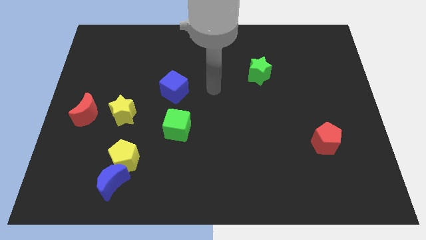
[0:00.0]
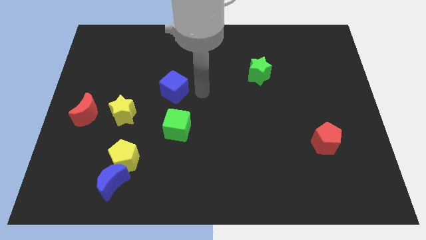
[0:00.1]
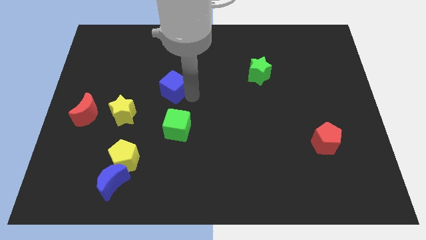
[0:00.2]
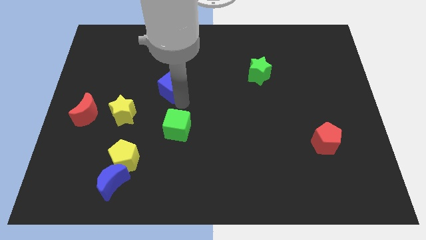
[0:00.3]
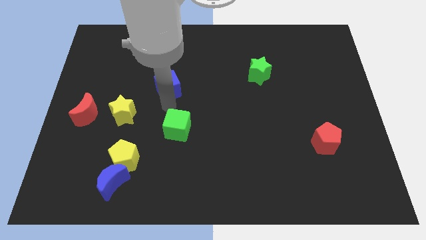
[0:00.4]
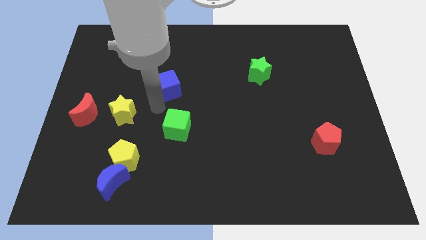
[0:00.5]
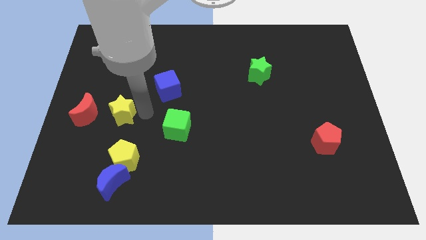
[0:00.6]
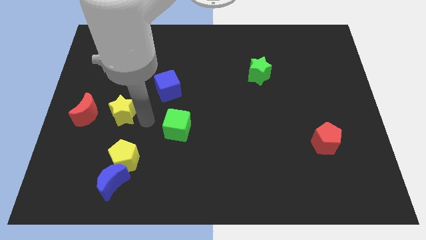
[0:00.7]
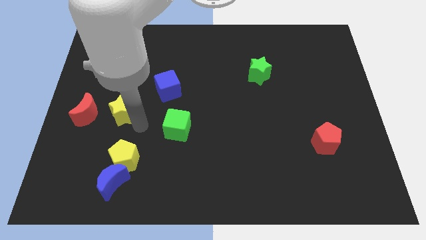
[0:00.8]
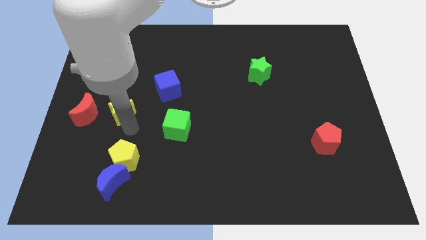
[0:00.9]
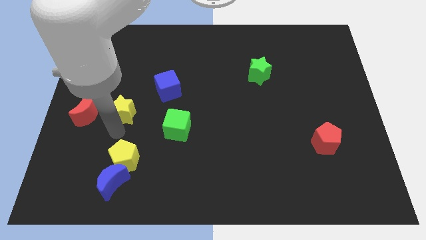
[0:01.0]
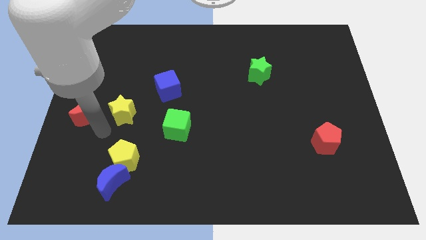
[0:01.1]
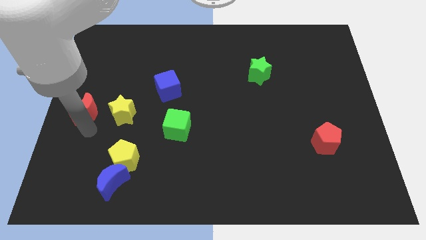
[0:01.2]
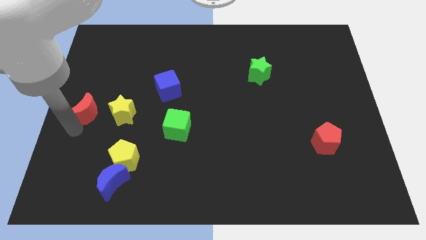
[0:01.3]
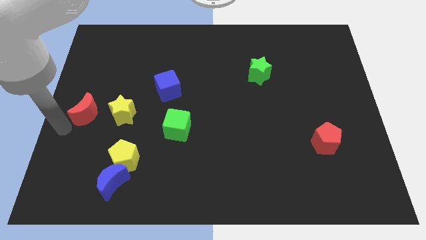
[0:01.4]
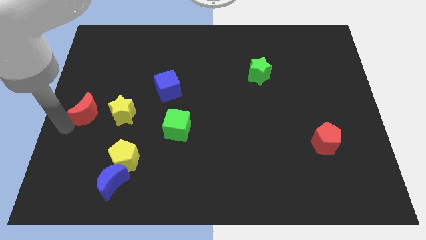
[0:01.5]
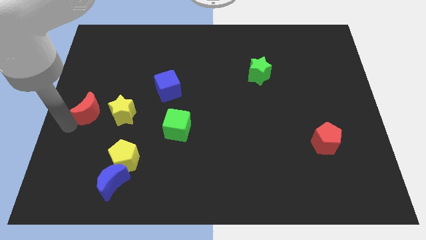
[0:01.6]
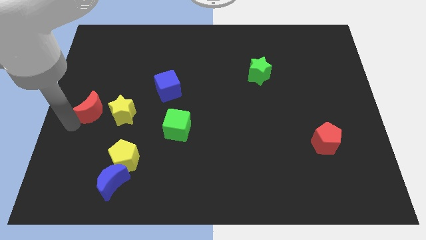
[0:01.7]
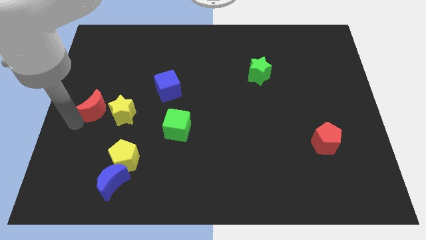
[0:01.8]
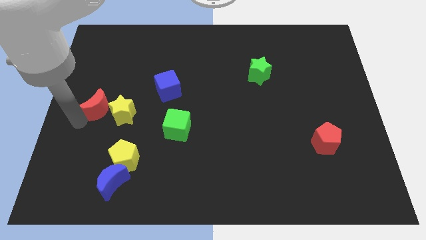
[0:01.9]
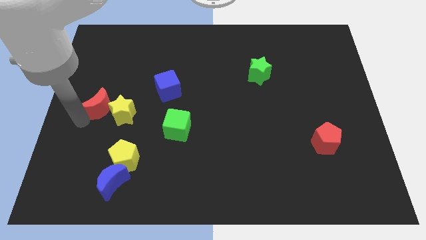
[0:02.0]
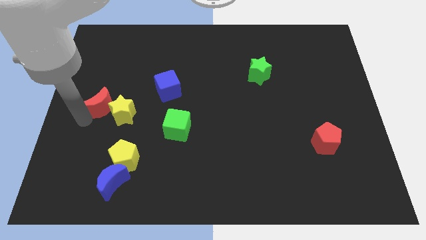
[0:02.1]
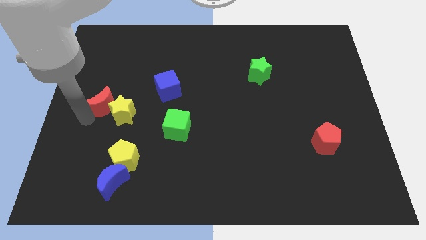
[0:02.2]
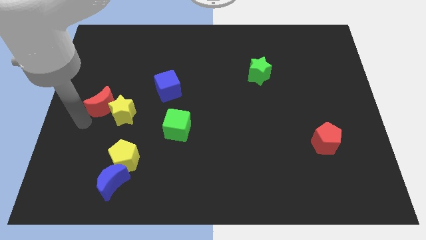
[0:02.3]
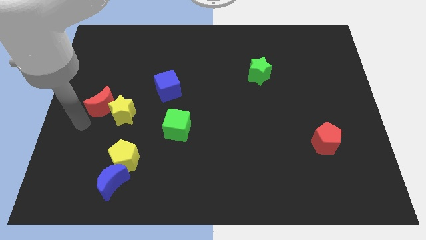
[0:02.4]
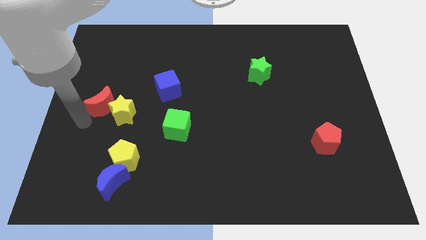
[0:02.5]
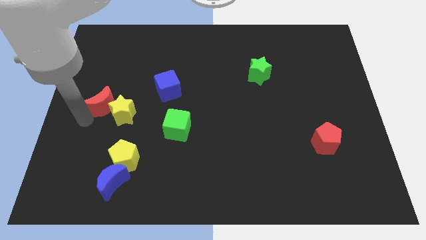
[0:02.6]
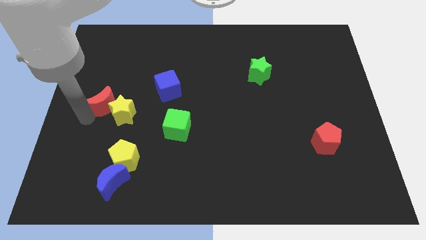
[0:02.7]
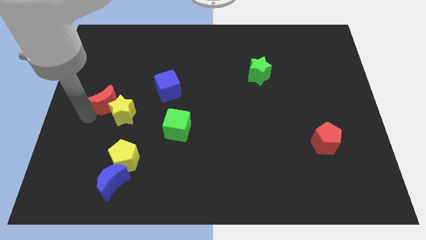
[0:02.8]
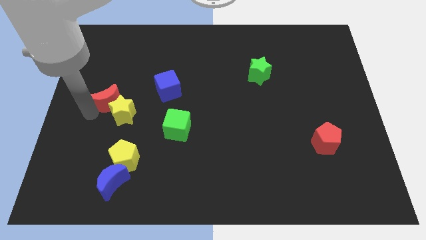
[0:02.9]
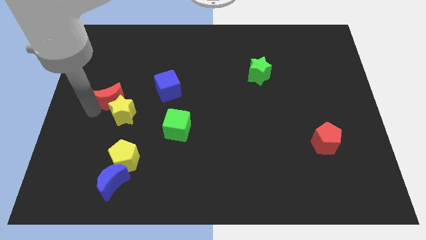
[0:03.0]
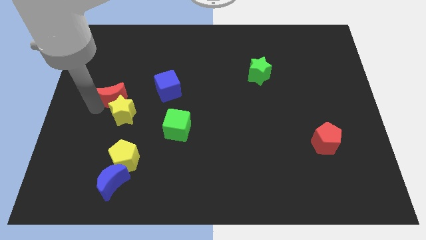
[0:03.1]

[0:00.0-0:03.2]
slightly move the red moon diagonally up and to the right

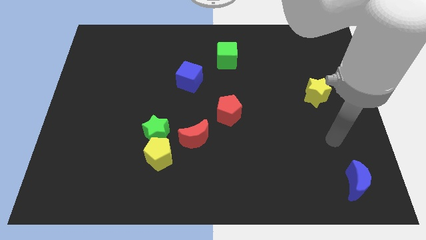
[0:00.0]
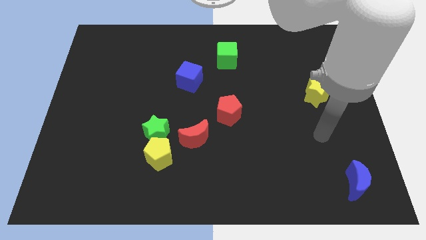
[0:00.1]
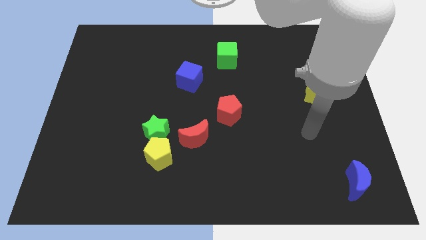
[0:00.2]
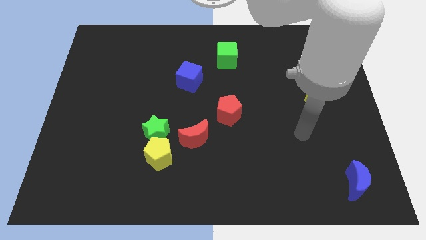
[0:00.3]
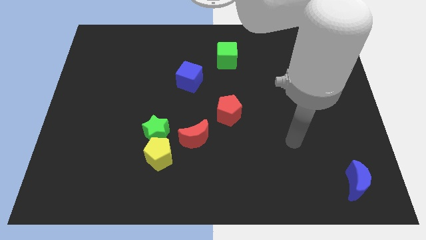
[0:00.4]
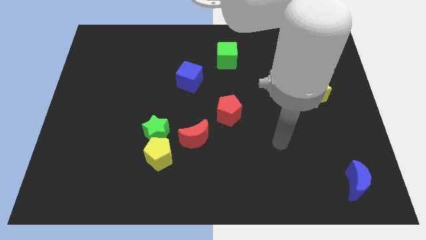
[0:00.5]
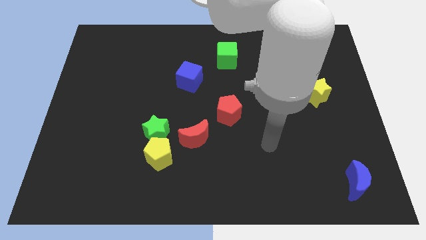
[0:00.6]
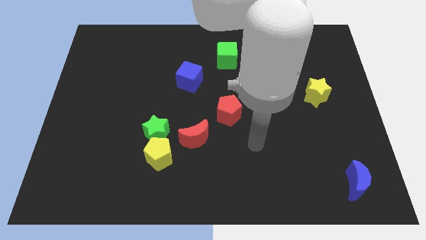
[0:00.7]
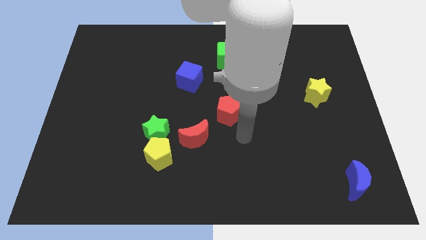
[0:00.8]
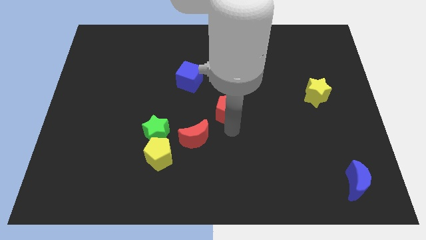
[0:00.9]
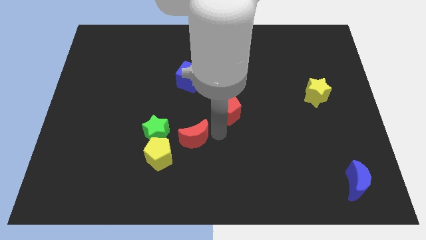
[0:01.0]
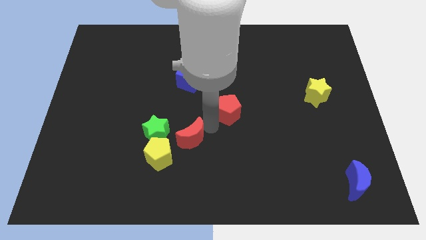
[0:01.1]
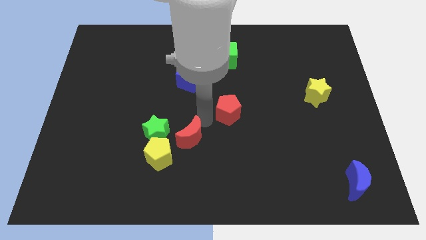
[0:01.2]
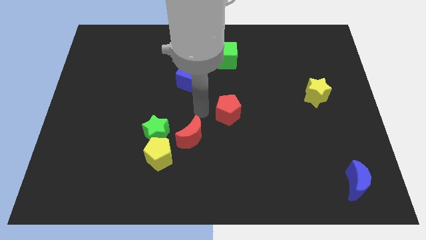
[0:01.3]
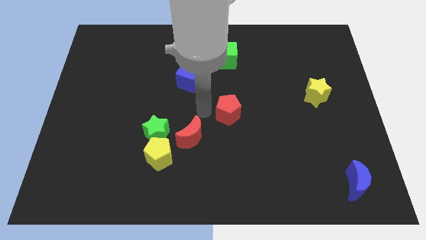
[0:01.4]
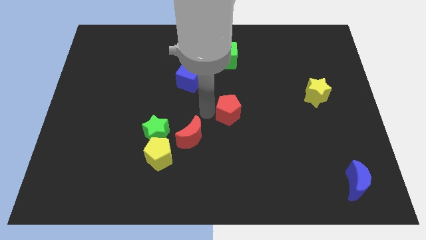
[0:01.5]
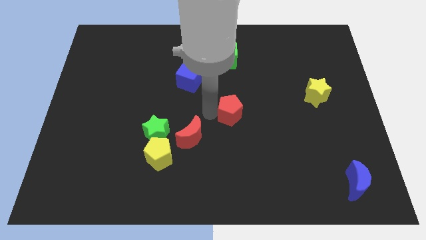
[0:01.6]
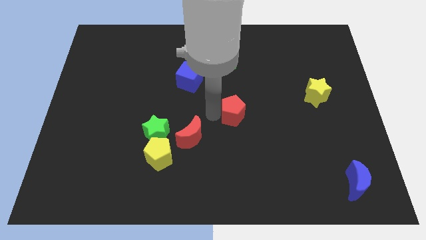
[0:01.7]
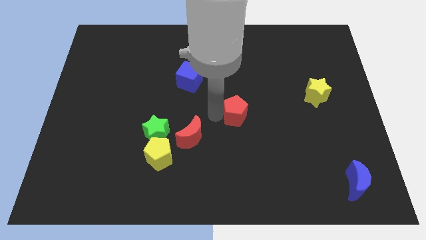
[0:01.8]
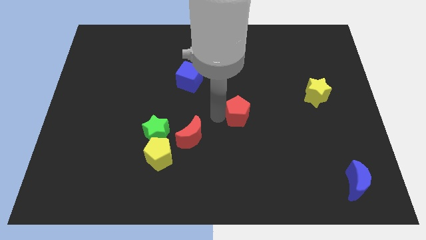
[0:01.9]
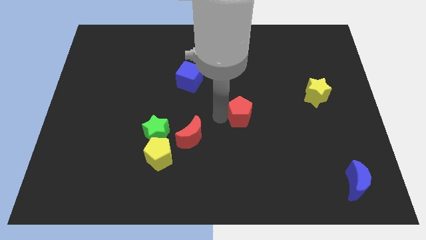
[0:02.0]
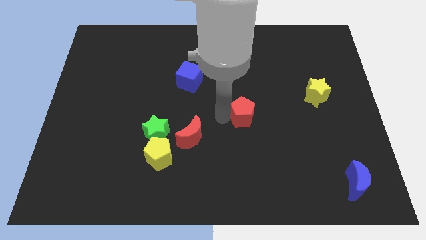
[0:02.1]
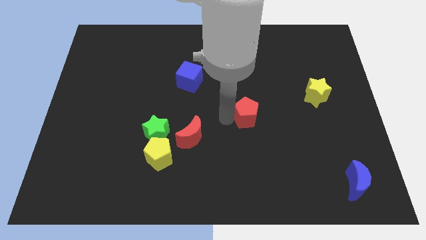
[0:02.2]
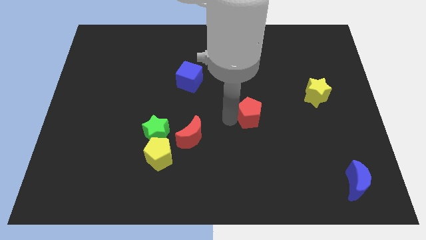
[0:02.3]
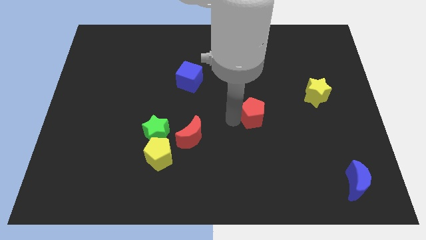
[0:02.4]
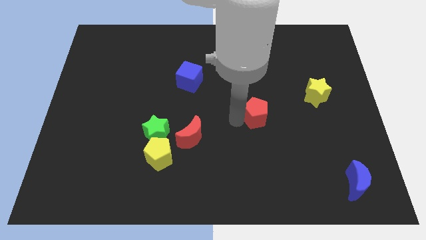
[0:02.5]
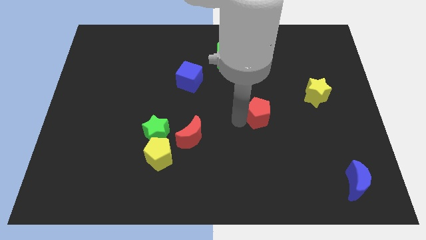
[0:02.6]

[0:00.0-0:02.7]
push the red pentagon somewhat to the right

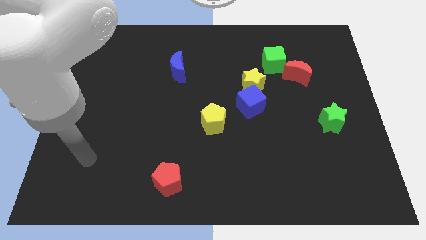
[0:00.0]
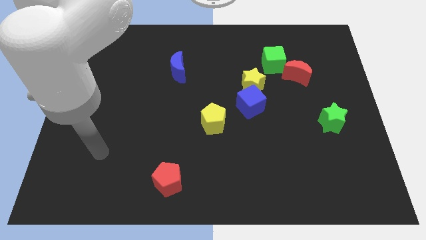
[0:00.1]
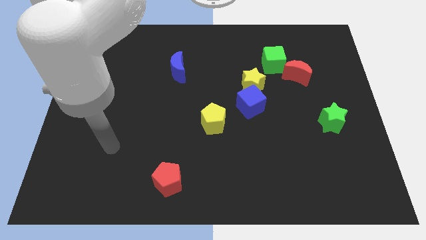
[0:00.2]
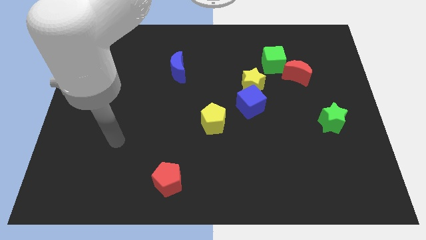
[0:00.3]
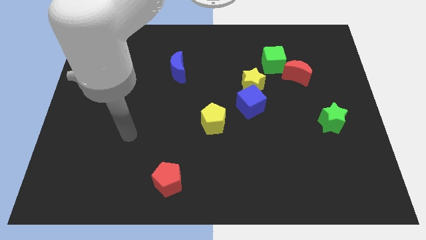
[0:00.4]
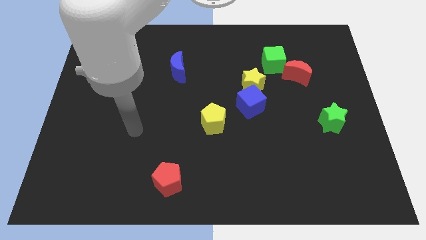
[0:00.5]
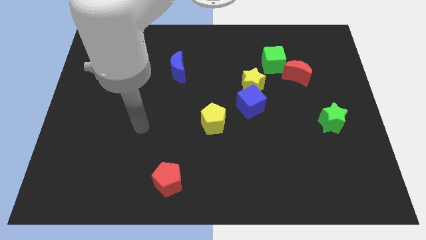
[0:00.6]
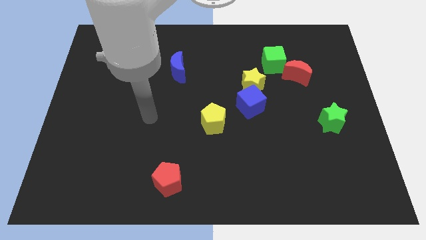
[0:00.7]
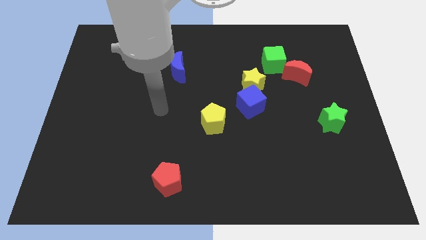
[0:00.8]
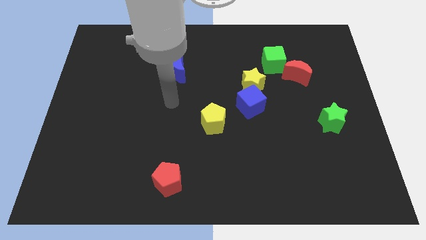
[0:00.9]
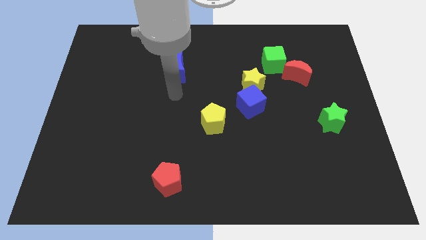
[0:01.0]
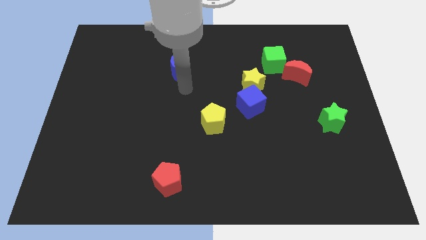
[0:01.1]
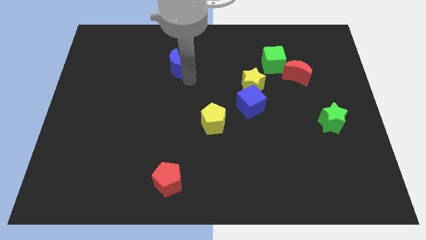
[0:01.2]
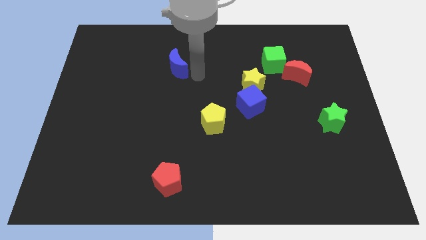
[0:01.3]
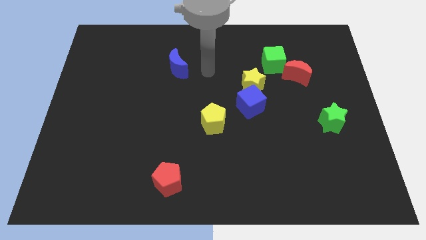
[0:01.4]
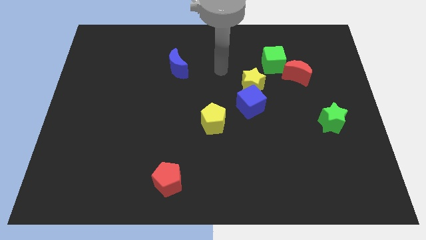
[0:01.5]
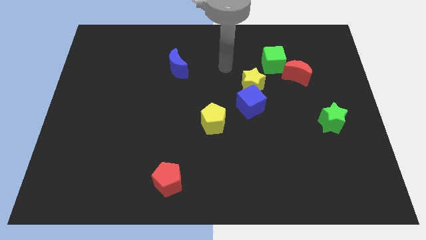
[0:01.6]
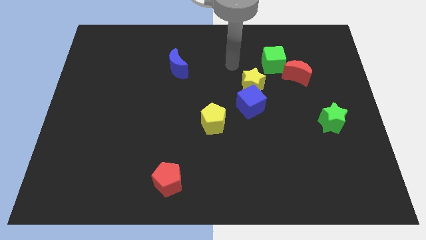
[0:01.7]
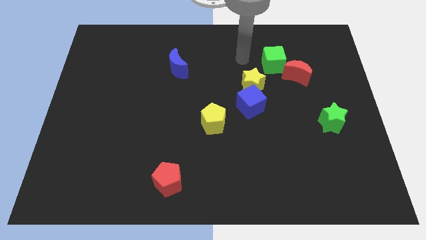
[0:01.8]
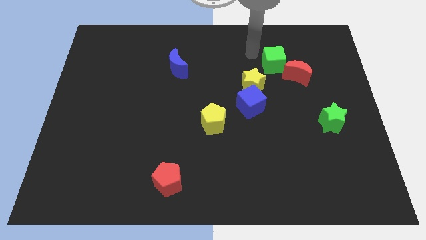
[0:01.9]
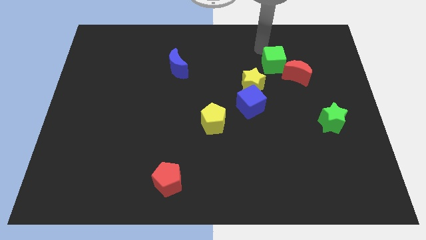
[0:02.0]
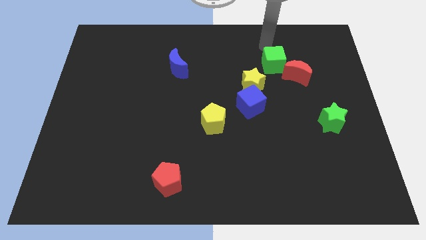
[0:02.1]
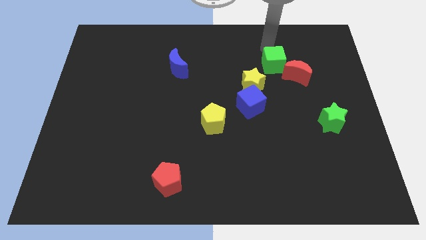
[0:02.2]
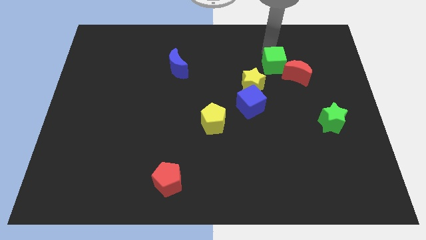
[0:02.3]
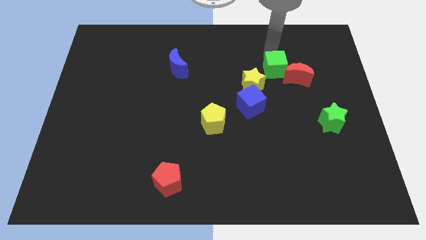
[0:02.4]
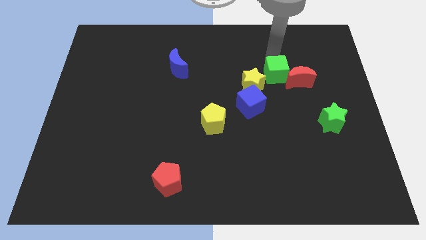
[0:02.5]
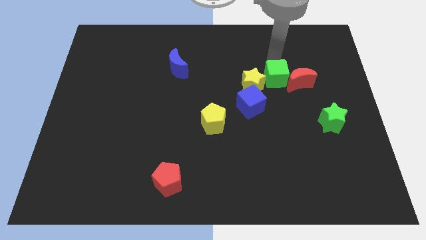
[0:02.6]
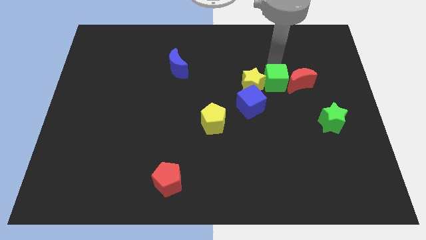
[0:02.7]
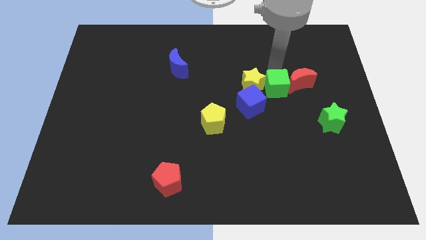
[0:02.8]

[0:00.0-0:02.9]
slightly move the green cube down
